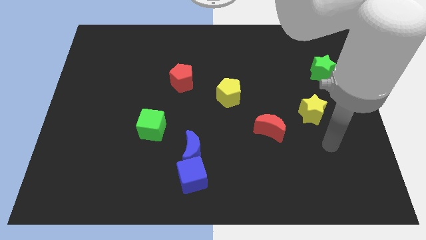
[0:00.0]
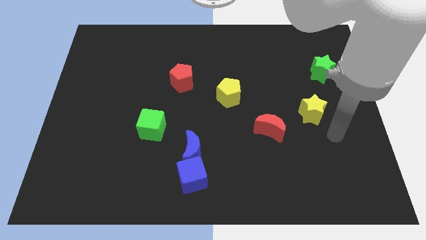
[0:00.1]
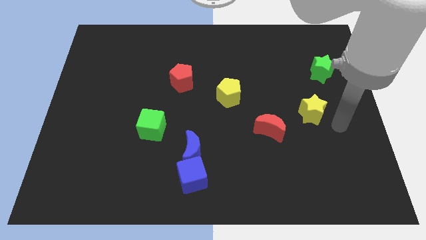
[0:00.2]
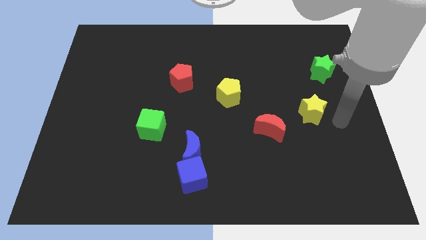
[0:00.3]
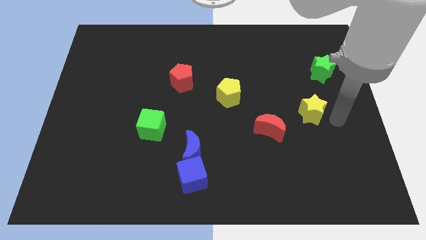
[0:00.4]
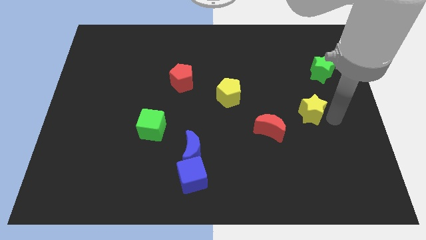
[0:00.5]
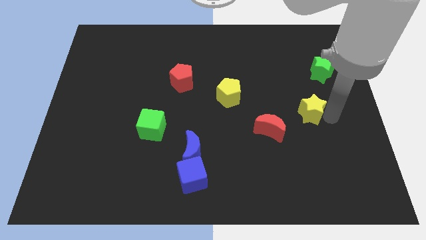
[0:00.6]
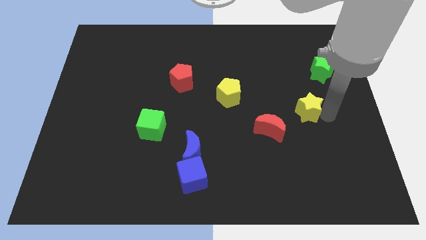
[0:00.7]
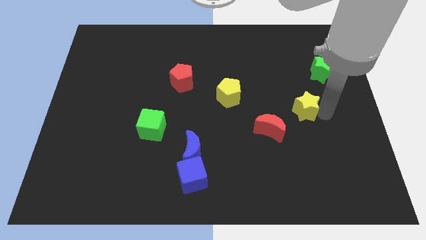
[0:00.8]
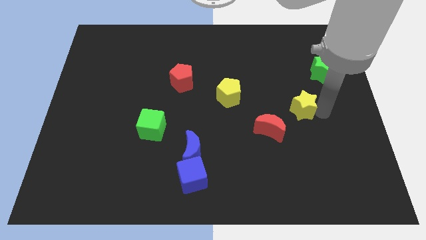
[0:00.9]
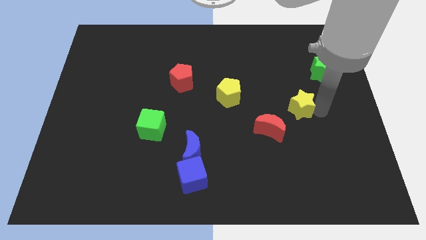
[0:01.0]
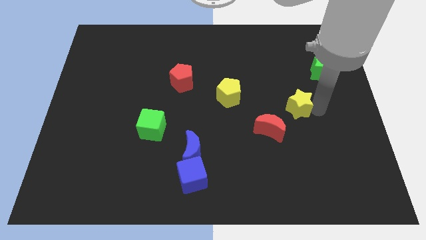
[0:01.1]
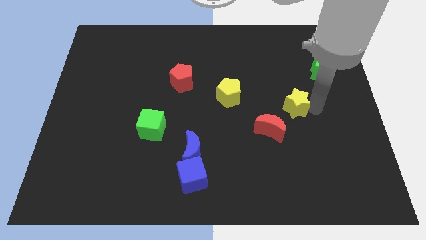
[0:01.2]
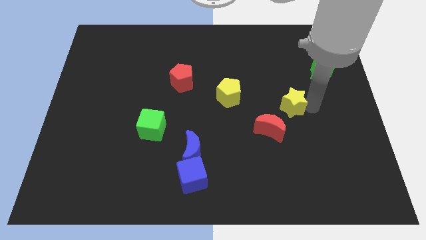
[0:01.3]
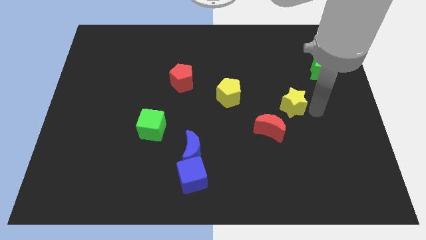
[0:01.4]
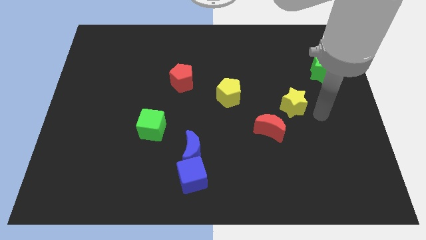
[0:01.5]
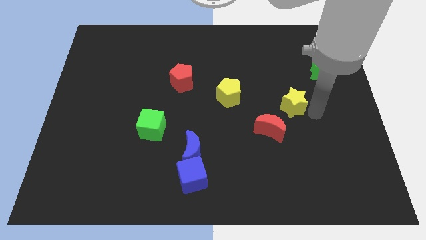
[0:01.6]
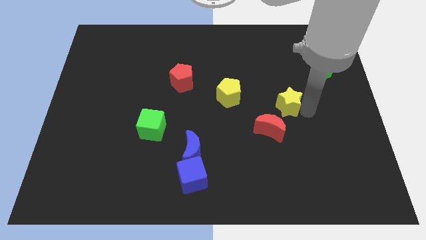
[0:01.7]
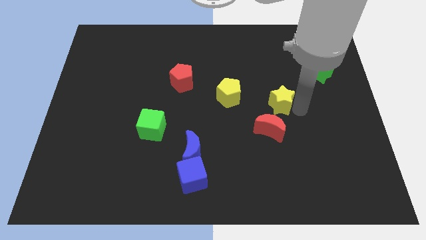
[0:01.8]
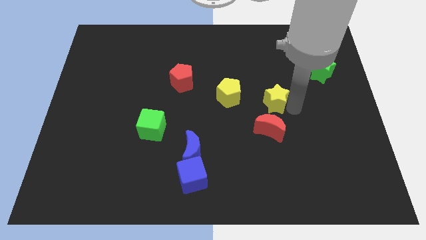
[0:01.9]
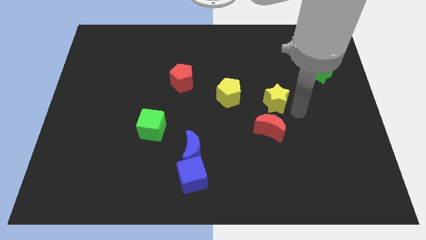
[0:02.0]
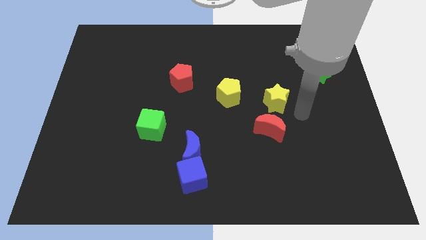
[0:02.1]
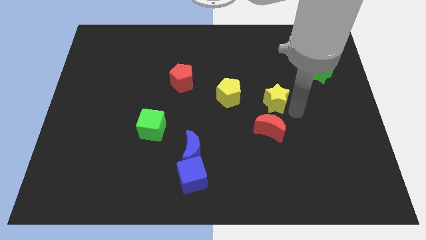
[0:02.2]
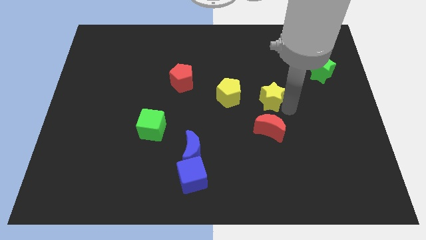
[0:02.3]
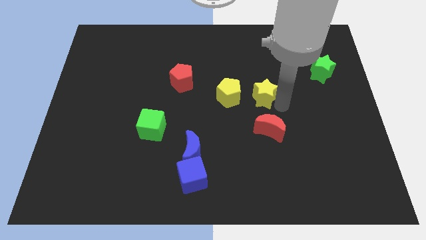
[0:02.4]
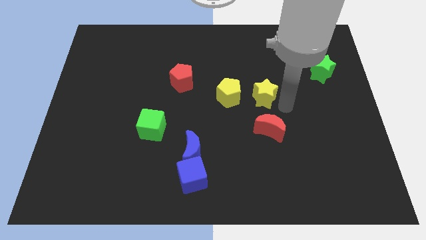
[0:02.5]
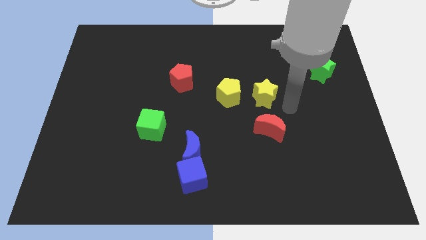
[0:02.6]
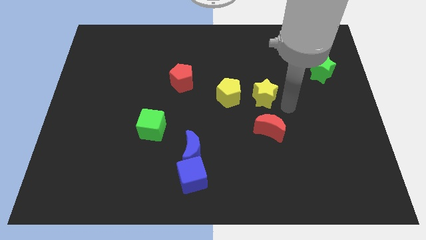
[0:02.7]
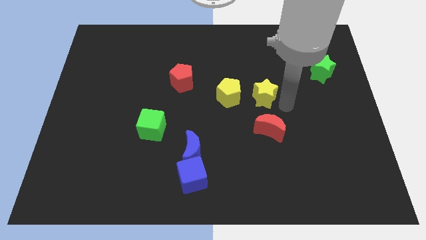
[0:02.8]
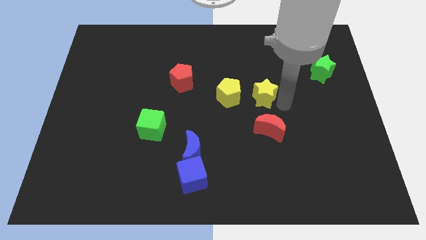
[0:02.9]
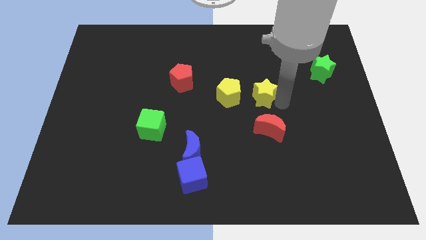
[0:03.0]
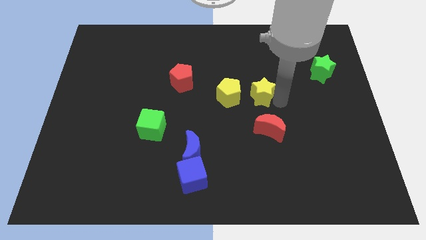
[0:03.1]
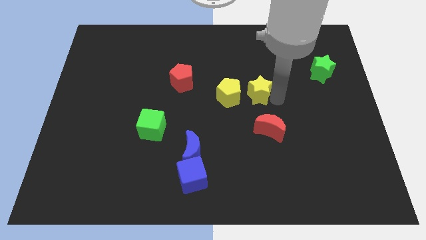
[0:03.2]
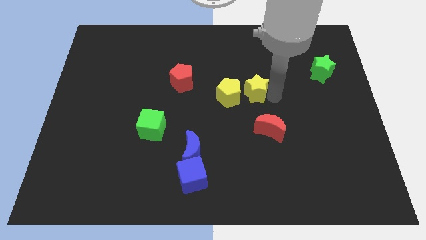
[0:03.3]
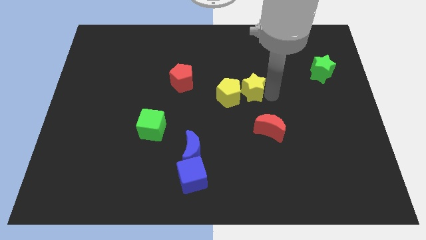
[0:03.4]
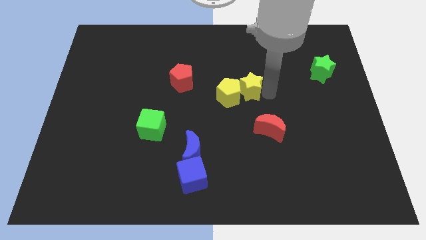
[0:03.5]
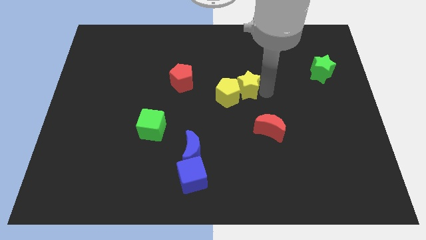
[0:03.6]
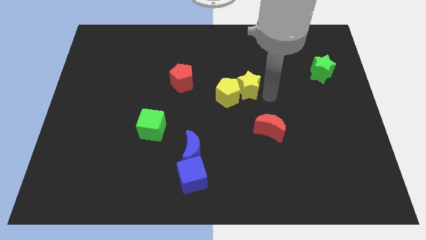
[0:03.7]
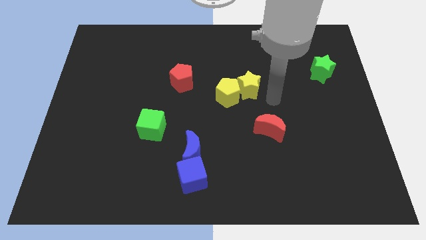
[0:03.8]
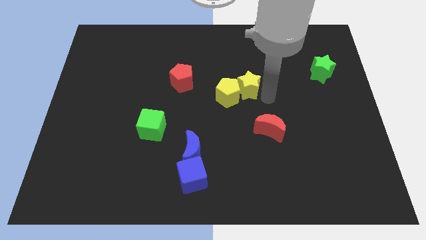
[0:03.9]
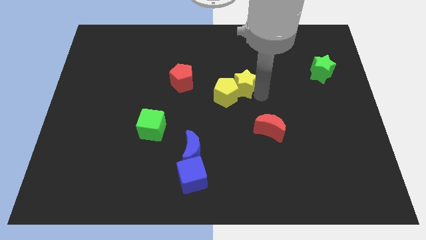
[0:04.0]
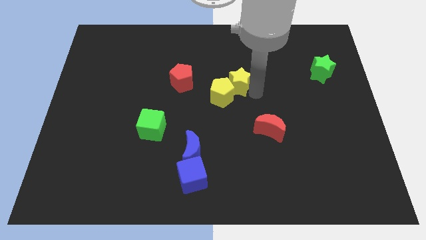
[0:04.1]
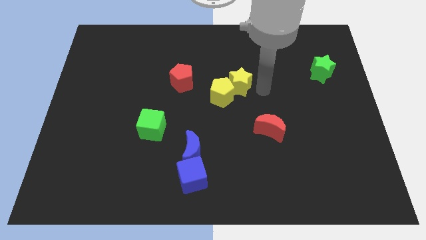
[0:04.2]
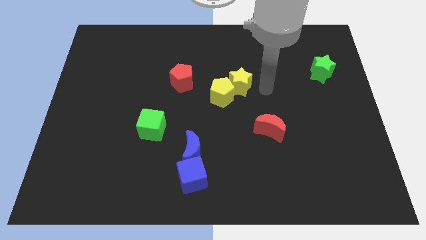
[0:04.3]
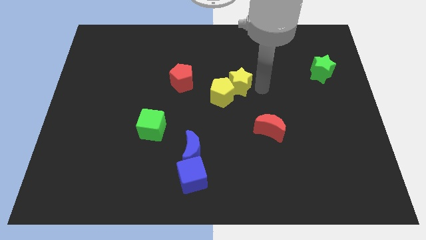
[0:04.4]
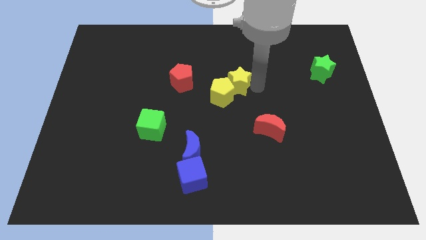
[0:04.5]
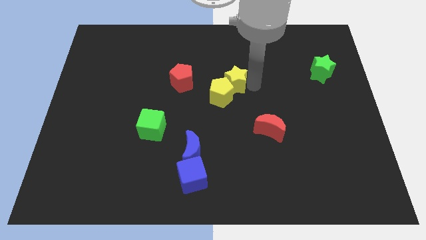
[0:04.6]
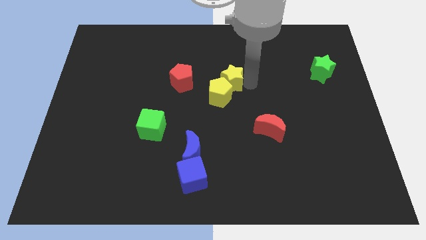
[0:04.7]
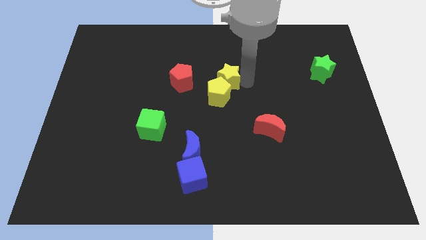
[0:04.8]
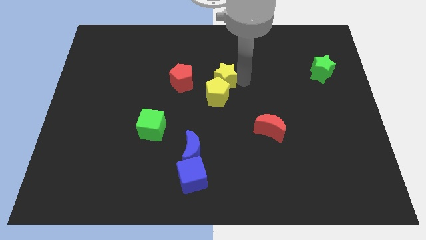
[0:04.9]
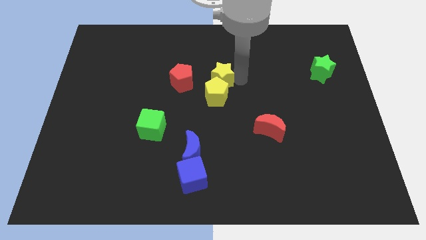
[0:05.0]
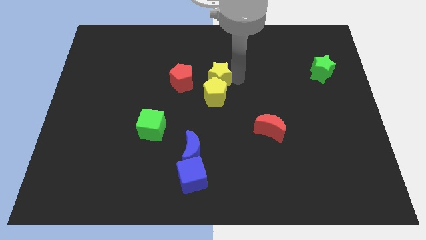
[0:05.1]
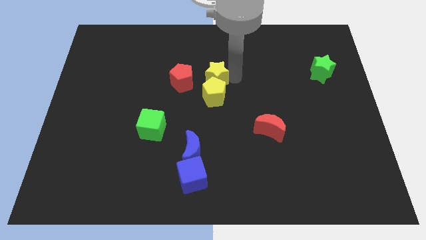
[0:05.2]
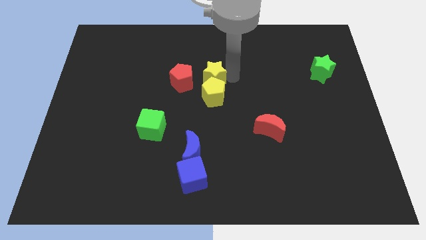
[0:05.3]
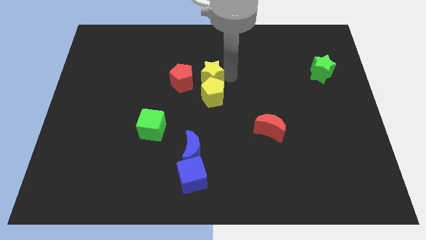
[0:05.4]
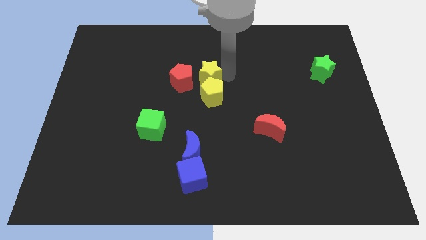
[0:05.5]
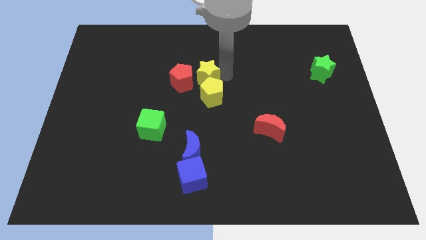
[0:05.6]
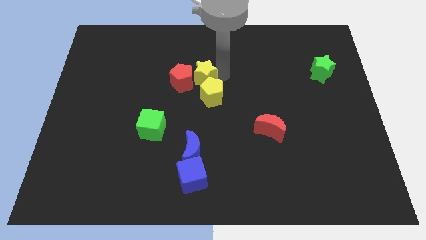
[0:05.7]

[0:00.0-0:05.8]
move the yellow star next to the red pentagon

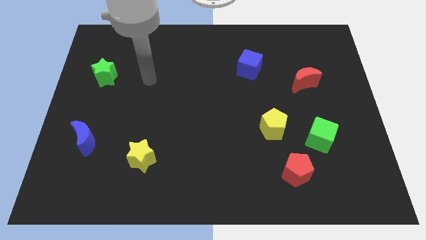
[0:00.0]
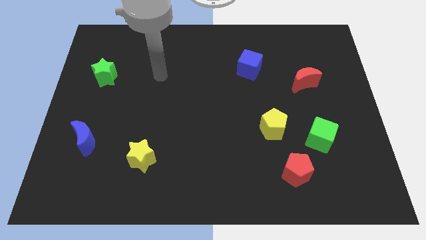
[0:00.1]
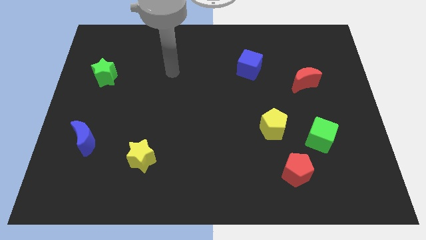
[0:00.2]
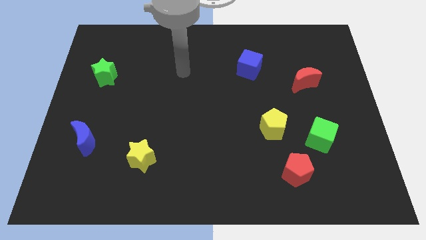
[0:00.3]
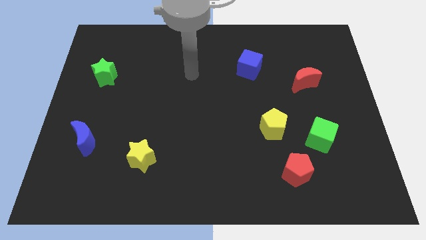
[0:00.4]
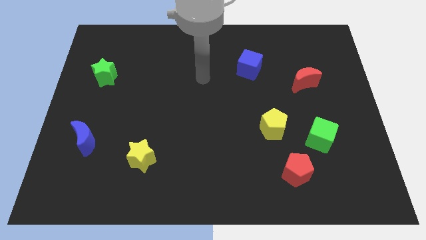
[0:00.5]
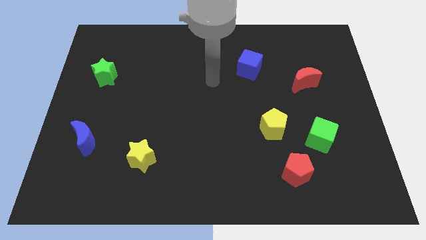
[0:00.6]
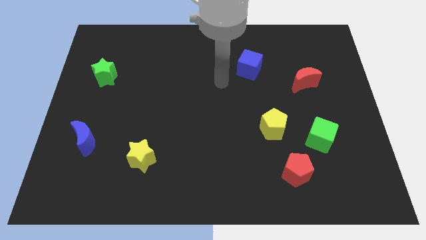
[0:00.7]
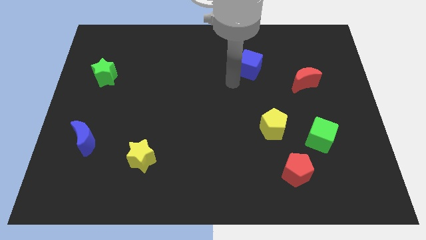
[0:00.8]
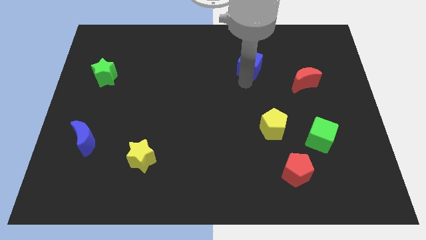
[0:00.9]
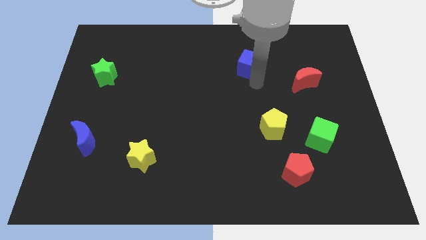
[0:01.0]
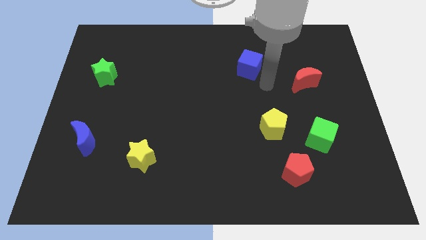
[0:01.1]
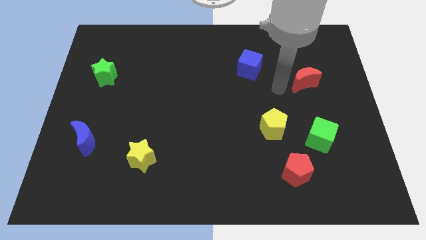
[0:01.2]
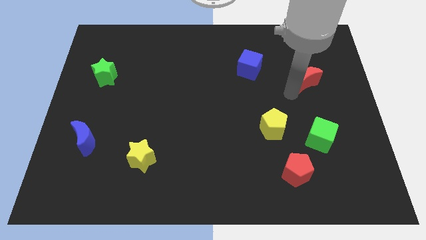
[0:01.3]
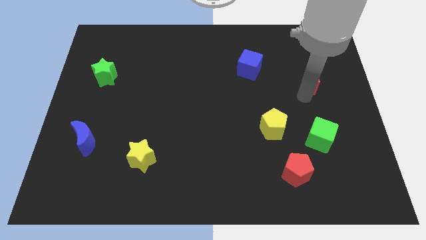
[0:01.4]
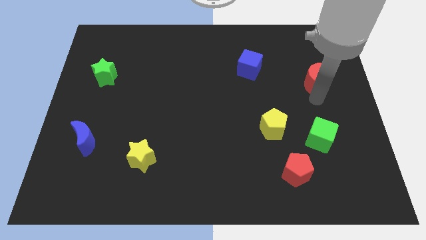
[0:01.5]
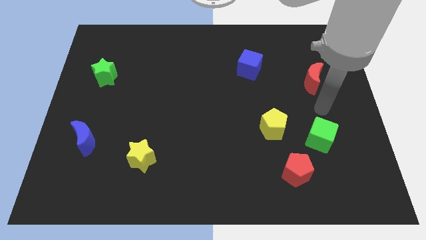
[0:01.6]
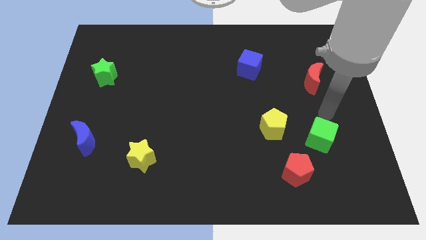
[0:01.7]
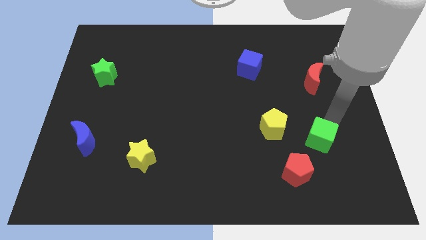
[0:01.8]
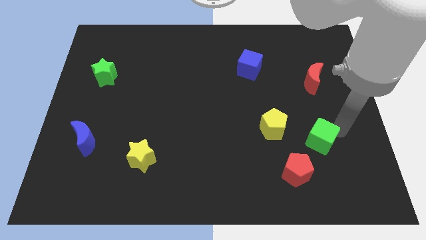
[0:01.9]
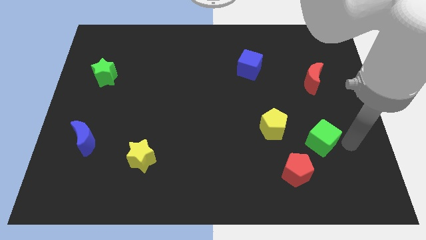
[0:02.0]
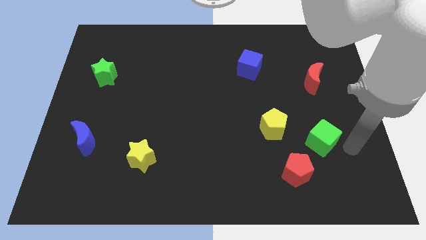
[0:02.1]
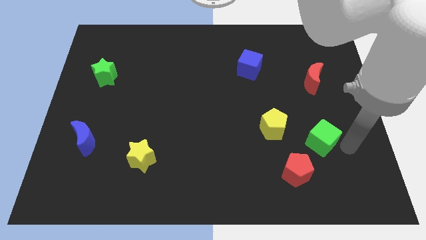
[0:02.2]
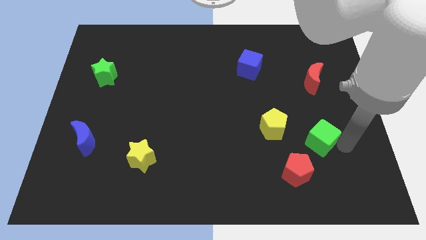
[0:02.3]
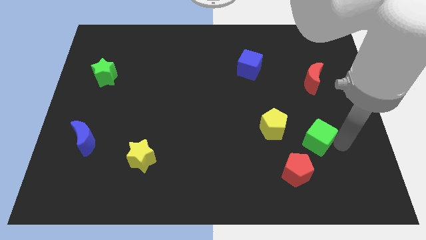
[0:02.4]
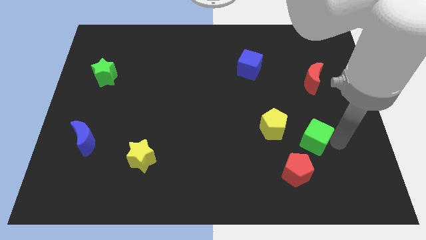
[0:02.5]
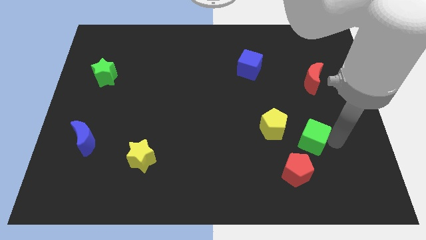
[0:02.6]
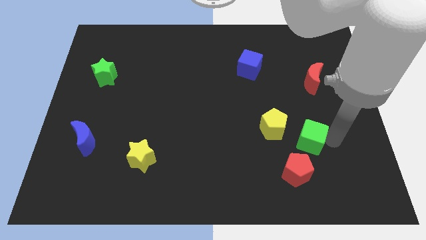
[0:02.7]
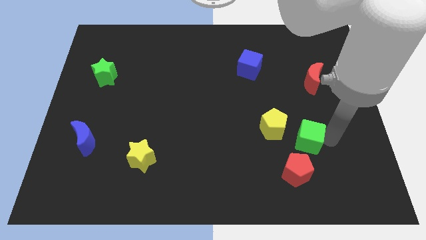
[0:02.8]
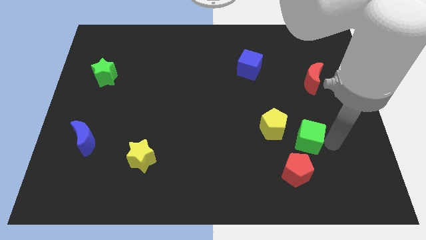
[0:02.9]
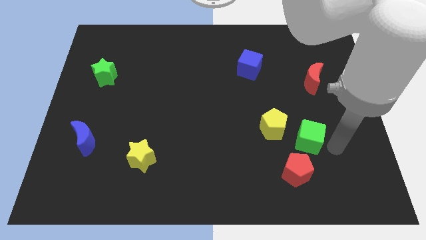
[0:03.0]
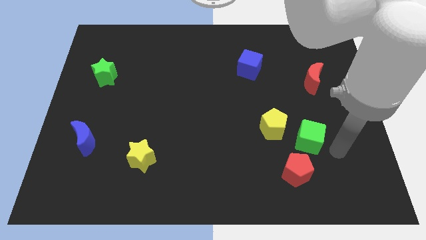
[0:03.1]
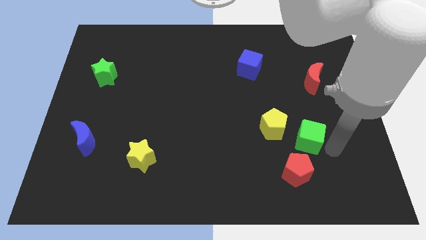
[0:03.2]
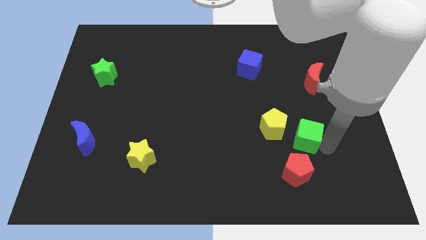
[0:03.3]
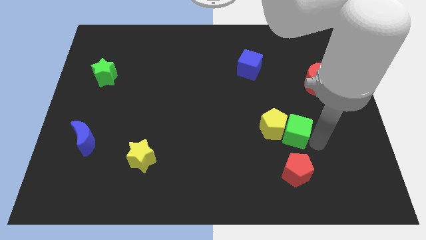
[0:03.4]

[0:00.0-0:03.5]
put the green cube next to the yellow pentagon
